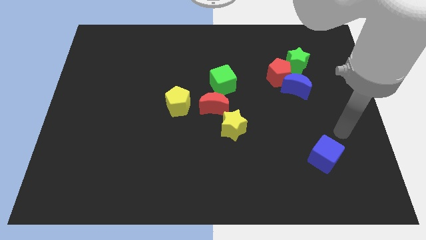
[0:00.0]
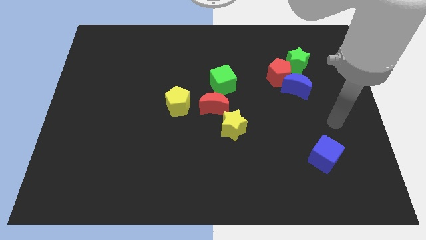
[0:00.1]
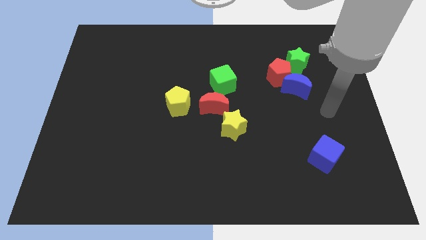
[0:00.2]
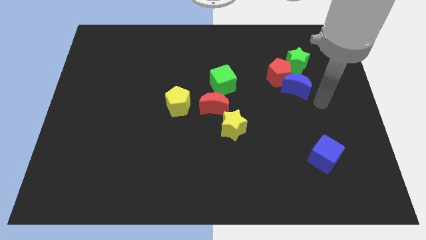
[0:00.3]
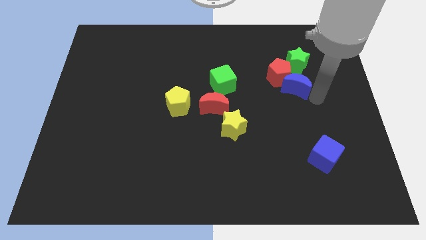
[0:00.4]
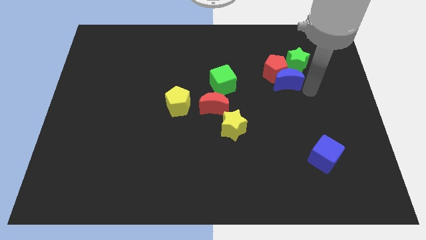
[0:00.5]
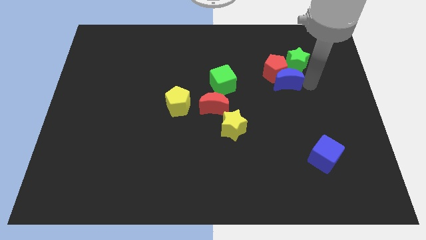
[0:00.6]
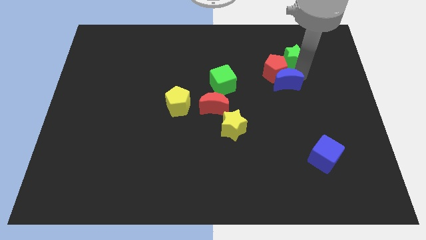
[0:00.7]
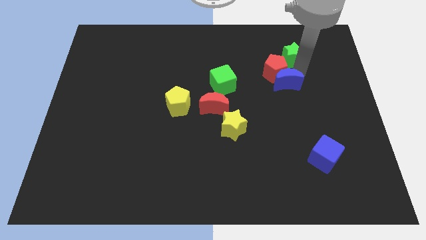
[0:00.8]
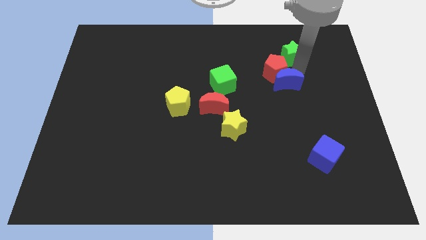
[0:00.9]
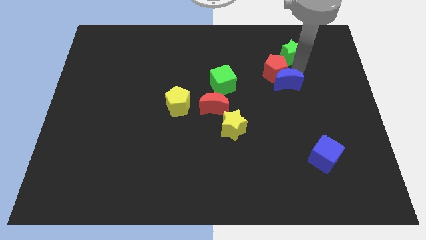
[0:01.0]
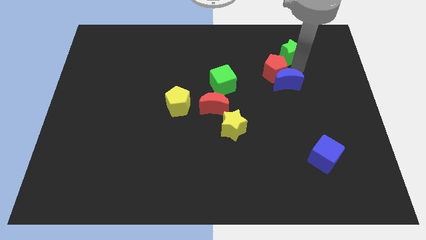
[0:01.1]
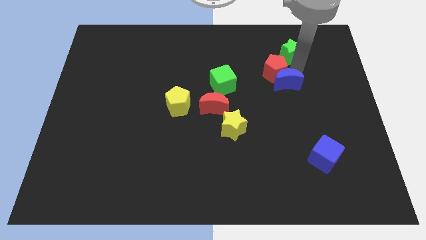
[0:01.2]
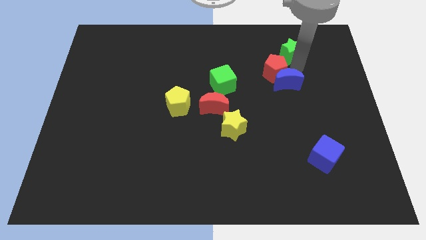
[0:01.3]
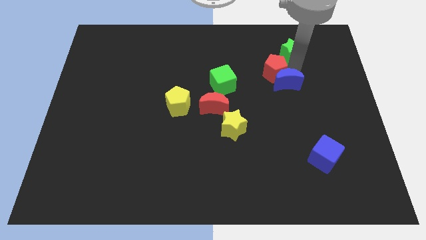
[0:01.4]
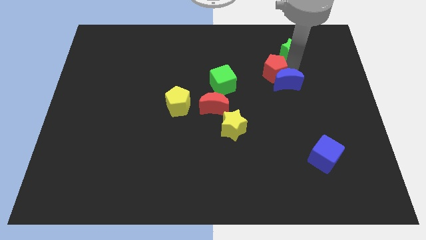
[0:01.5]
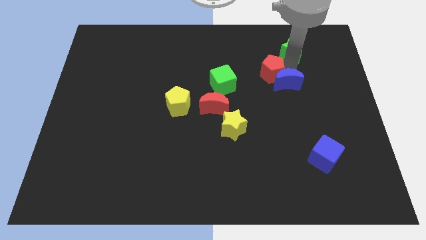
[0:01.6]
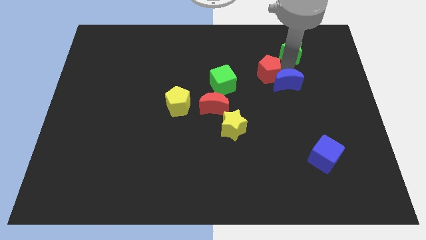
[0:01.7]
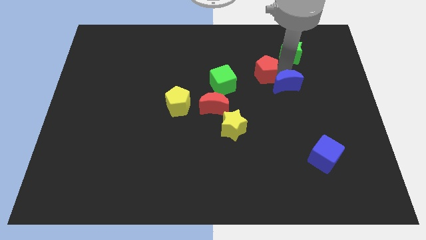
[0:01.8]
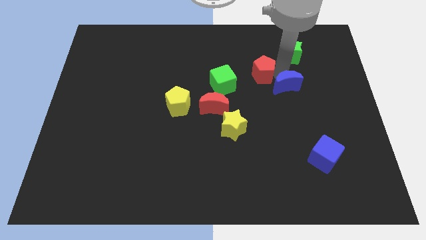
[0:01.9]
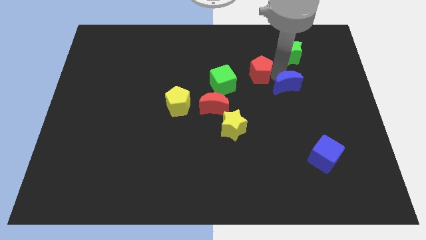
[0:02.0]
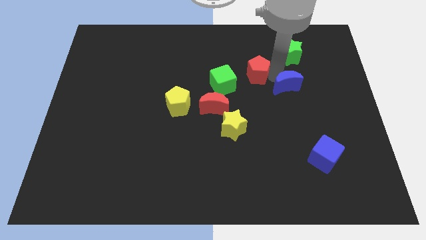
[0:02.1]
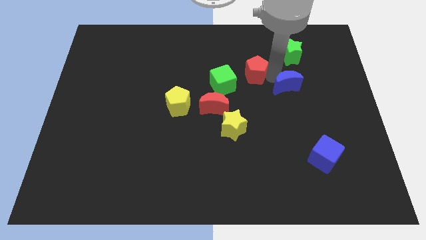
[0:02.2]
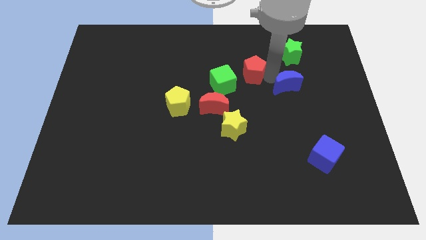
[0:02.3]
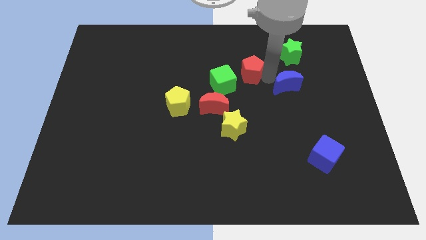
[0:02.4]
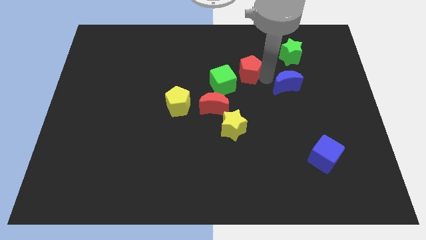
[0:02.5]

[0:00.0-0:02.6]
pull the red pentagon apart from the blue moon and green star

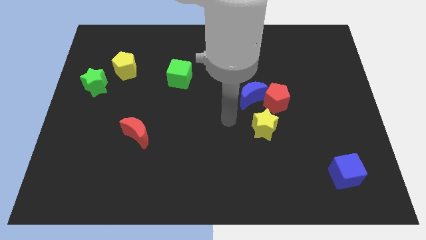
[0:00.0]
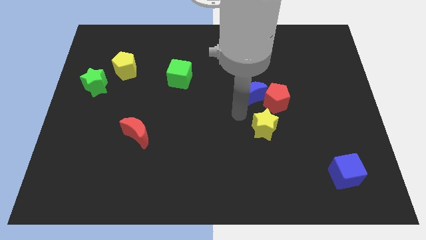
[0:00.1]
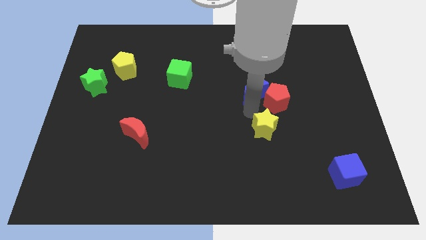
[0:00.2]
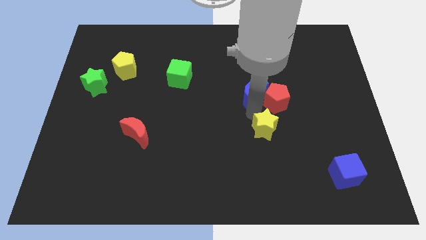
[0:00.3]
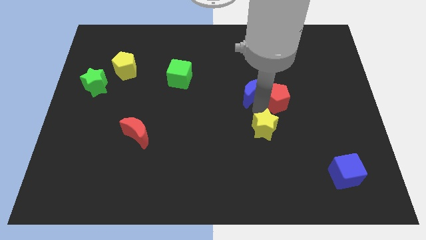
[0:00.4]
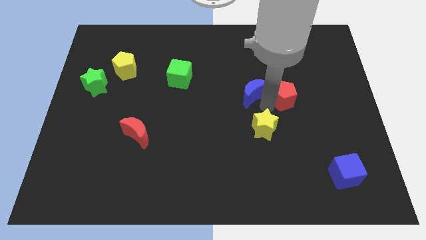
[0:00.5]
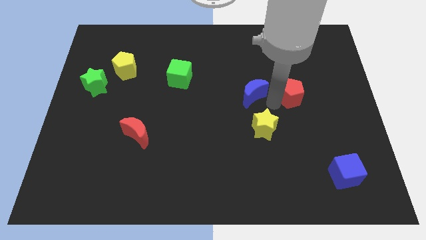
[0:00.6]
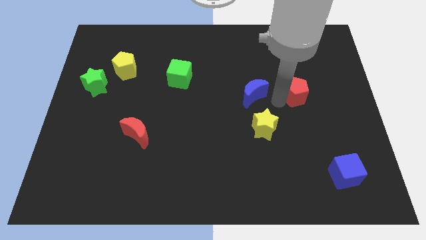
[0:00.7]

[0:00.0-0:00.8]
move the red pentagon away from the blue moon and yellow star

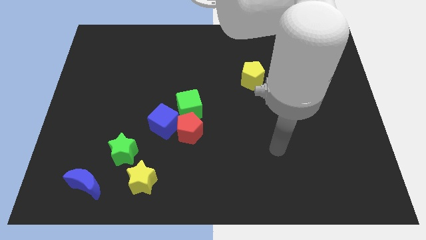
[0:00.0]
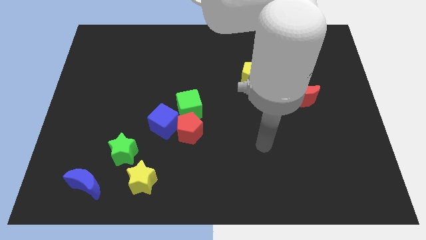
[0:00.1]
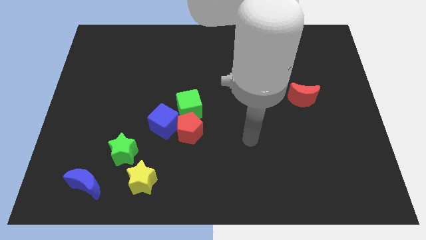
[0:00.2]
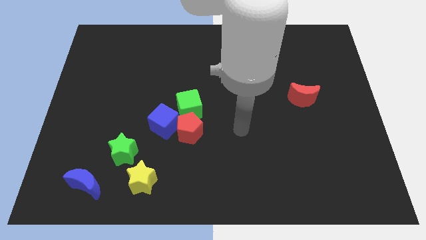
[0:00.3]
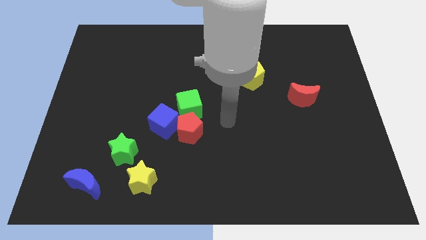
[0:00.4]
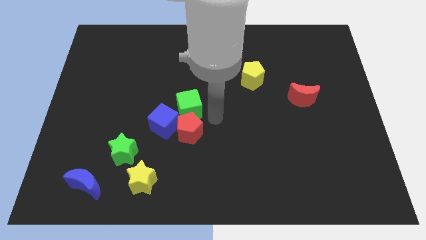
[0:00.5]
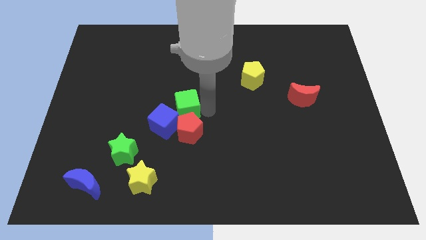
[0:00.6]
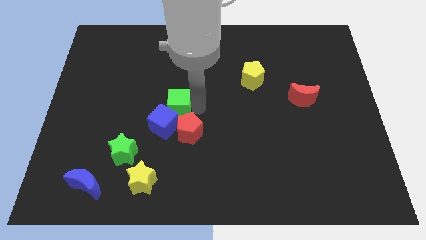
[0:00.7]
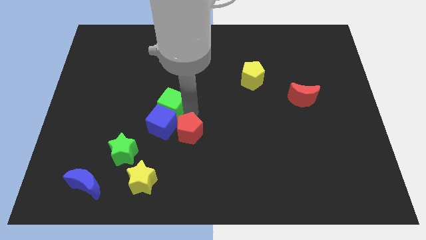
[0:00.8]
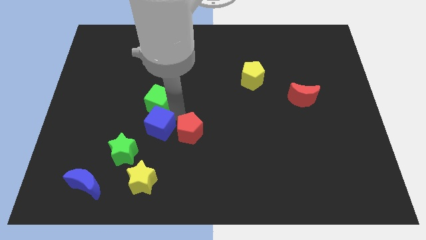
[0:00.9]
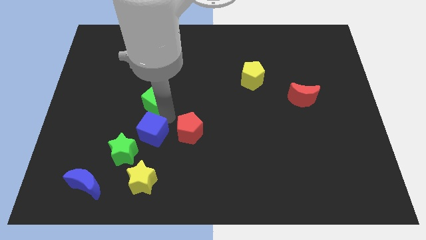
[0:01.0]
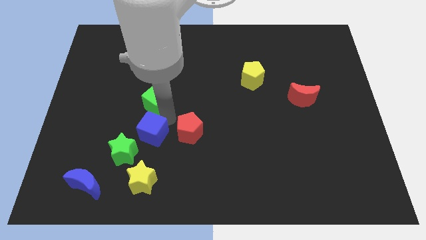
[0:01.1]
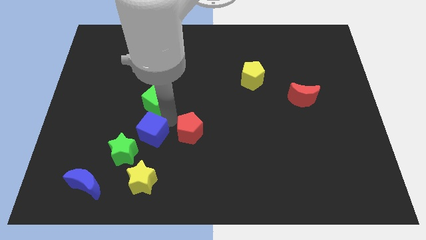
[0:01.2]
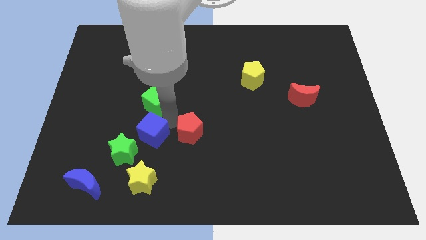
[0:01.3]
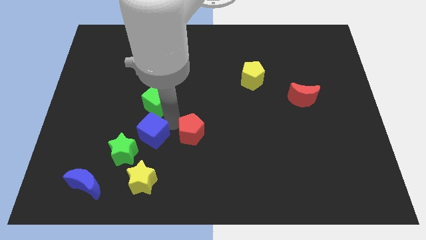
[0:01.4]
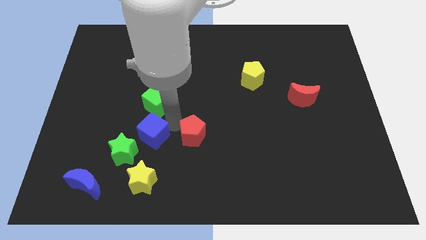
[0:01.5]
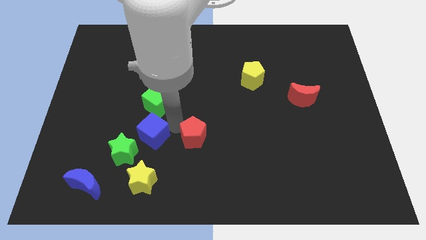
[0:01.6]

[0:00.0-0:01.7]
move the red pentagon away from the blue cube and green cube

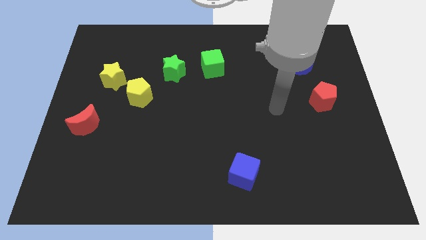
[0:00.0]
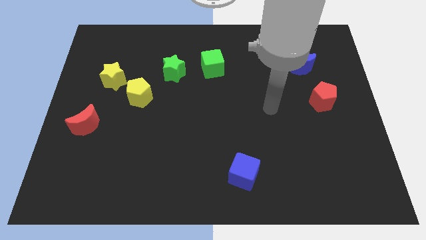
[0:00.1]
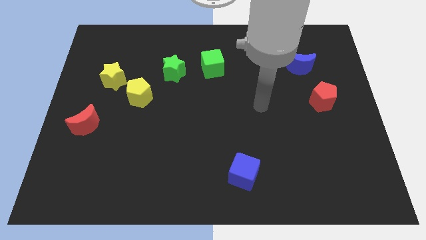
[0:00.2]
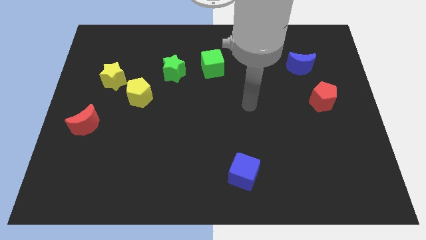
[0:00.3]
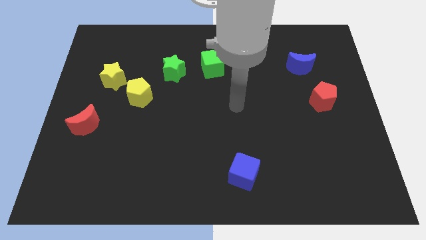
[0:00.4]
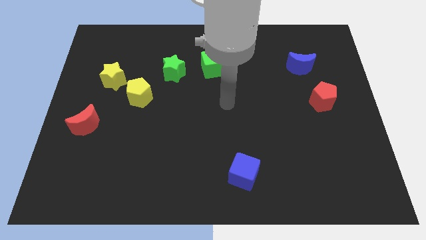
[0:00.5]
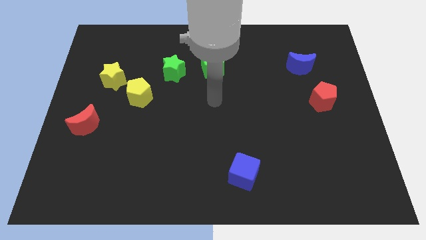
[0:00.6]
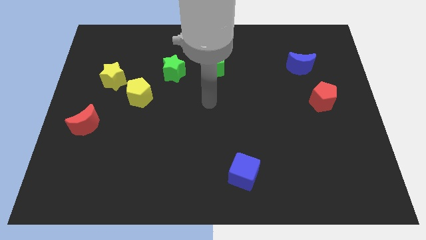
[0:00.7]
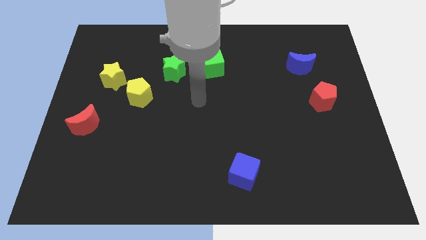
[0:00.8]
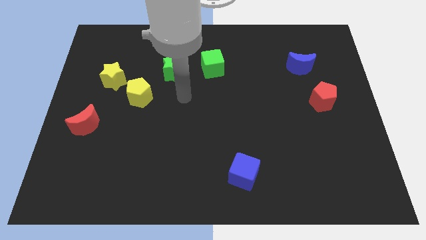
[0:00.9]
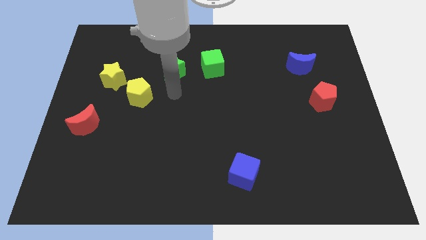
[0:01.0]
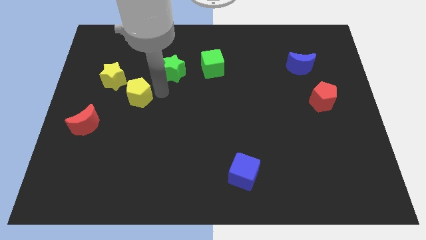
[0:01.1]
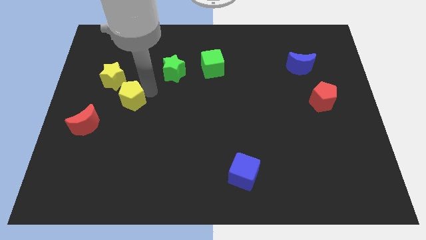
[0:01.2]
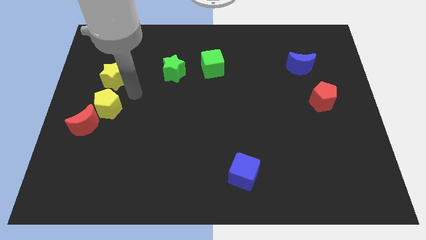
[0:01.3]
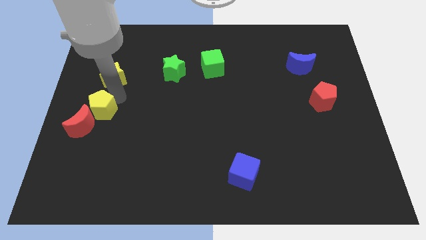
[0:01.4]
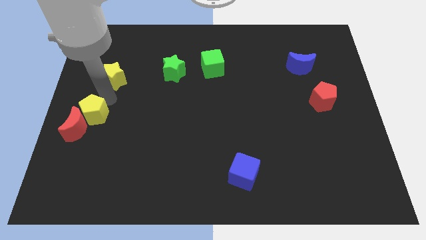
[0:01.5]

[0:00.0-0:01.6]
pull the yellow star apart from the yellow pentagon

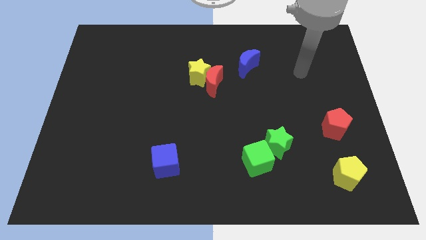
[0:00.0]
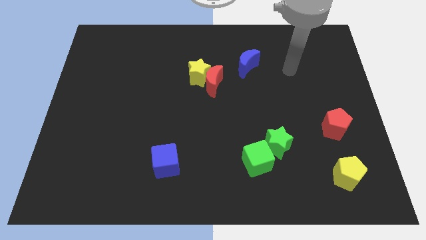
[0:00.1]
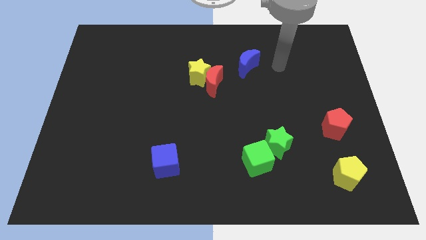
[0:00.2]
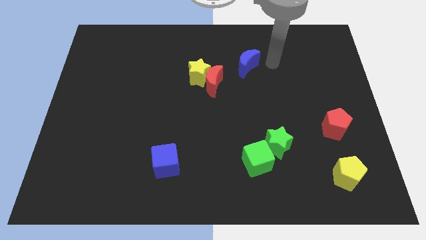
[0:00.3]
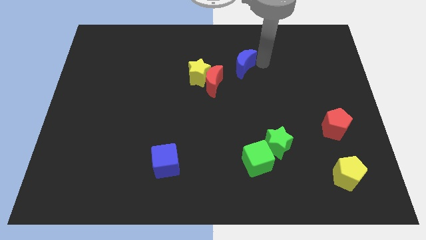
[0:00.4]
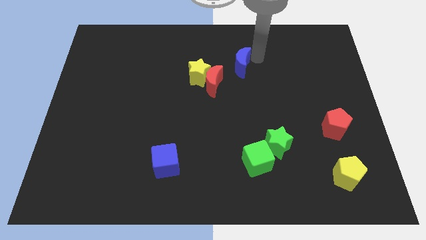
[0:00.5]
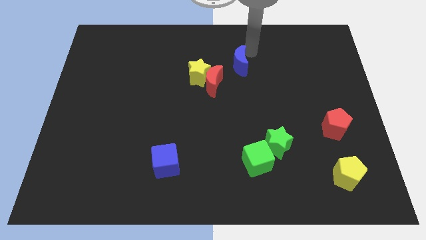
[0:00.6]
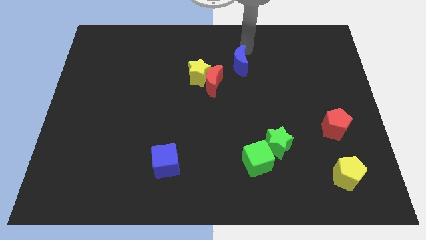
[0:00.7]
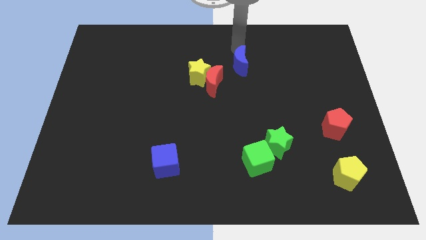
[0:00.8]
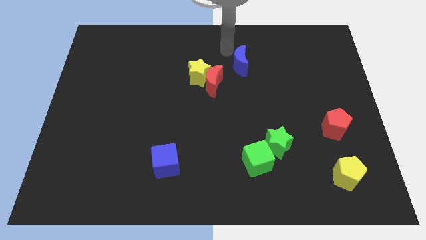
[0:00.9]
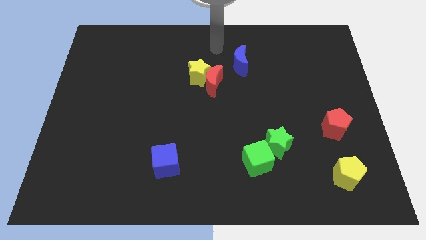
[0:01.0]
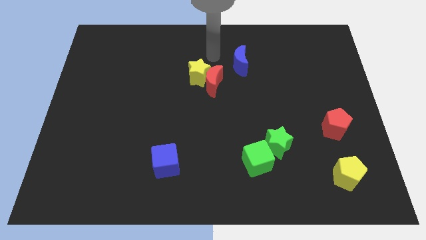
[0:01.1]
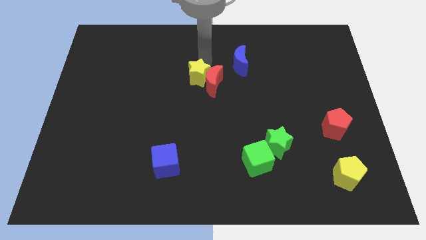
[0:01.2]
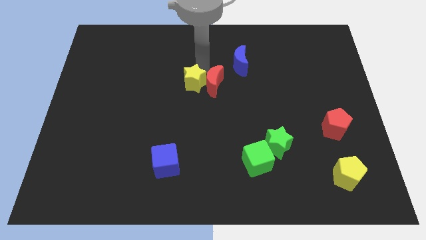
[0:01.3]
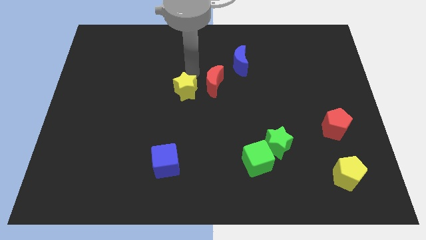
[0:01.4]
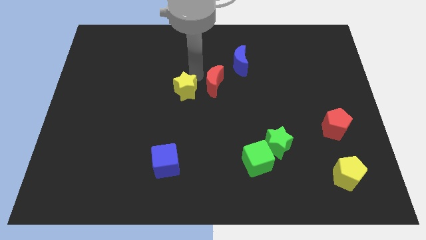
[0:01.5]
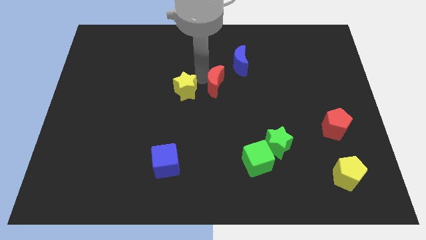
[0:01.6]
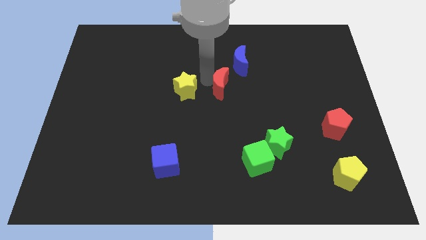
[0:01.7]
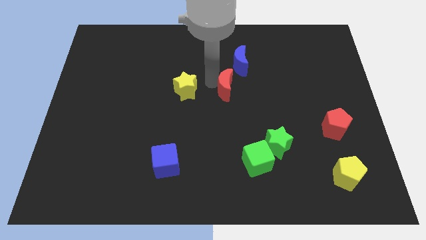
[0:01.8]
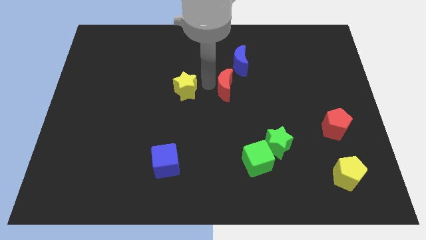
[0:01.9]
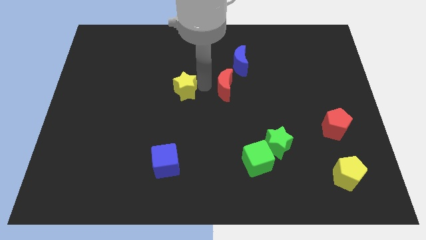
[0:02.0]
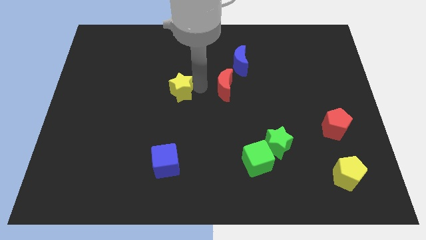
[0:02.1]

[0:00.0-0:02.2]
pull the red moon apart from the yellow star

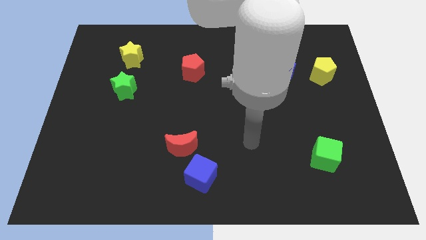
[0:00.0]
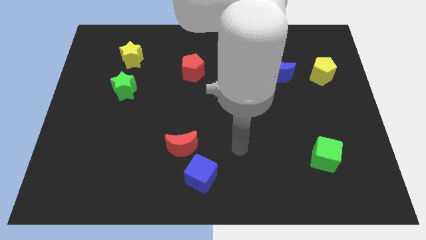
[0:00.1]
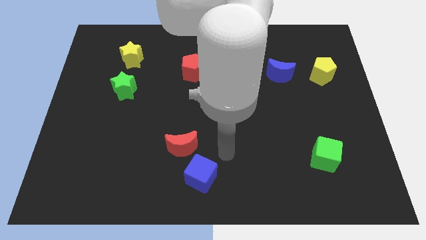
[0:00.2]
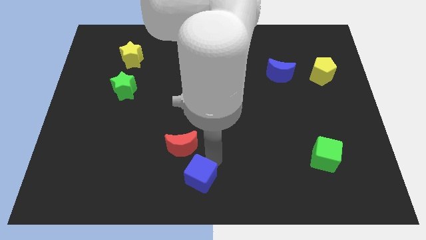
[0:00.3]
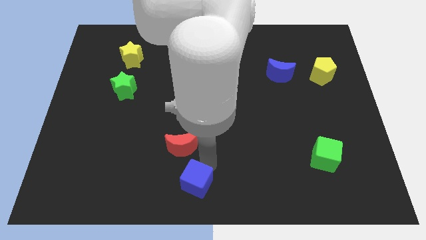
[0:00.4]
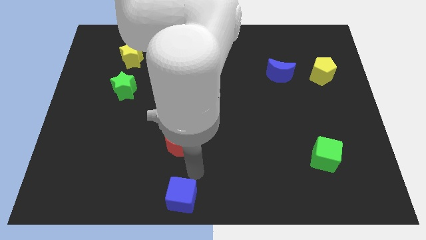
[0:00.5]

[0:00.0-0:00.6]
separate the red moon from the blue cube
